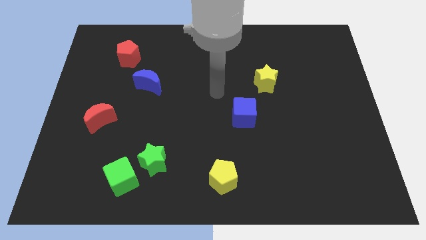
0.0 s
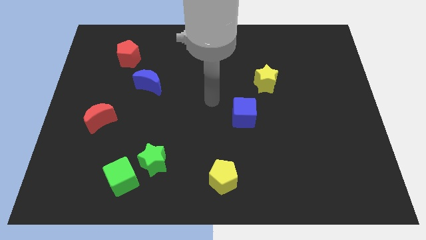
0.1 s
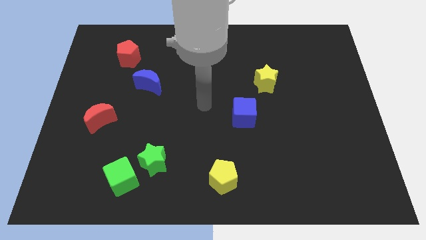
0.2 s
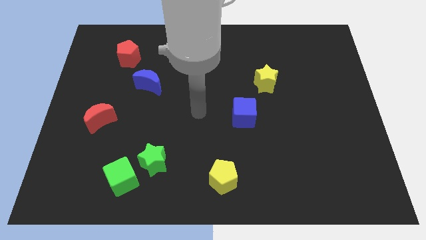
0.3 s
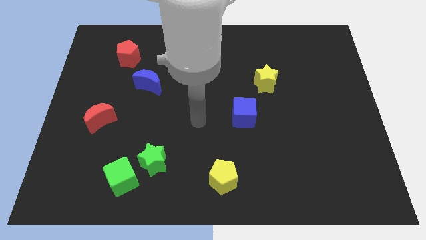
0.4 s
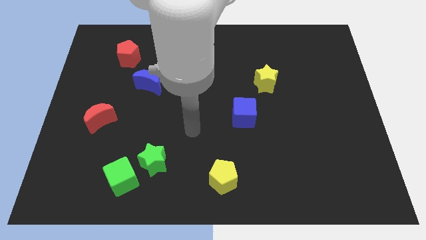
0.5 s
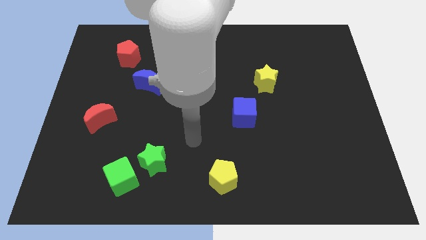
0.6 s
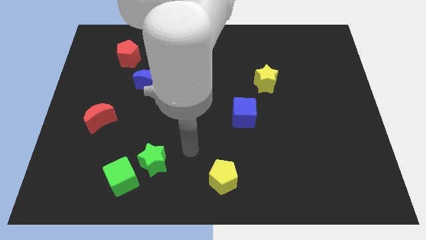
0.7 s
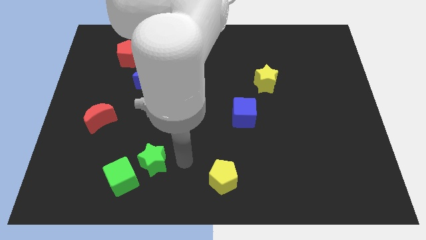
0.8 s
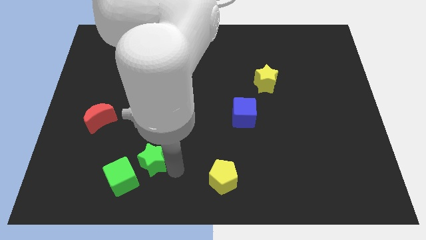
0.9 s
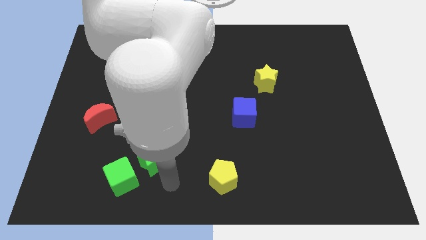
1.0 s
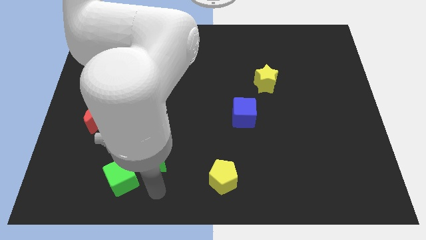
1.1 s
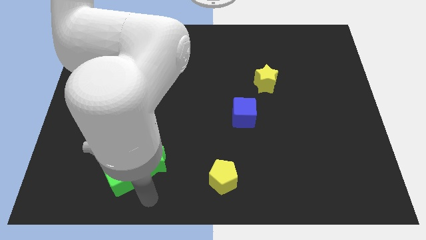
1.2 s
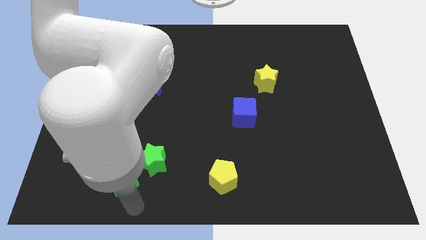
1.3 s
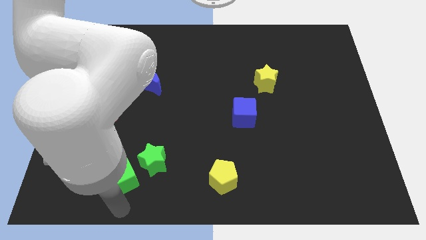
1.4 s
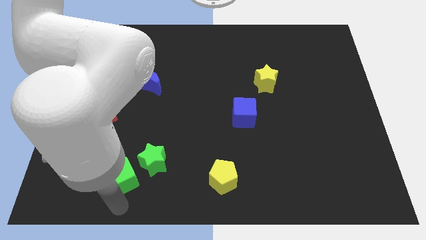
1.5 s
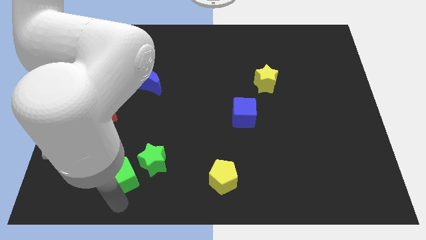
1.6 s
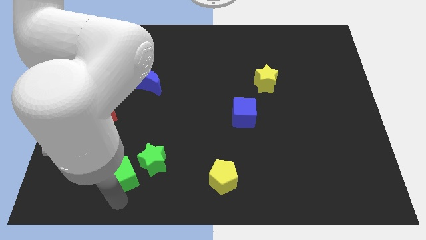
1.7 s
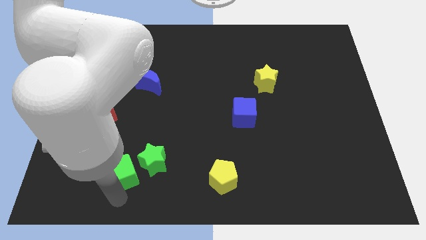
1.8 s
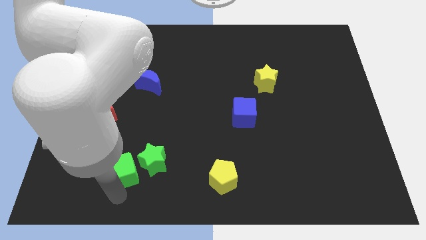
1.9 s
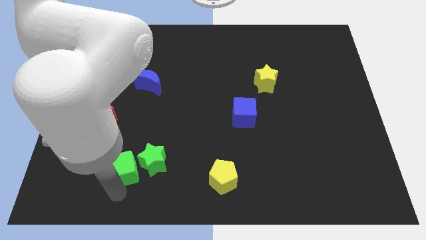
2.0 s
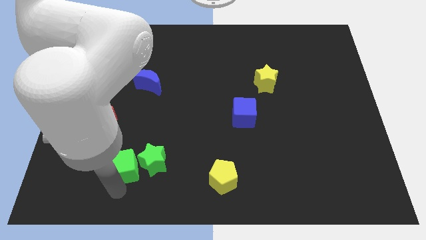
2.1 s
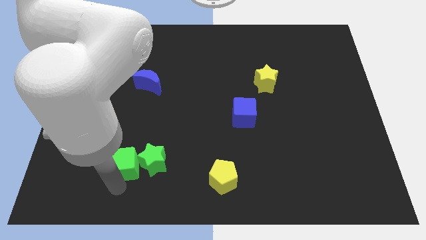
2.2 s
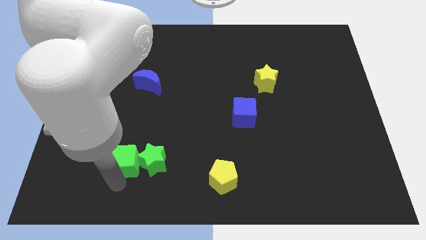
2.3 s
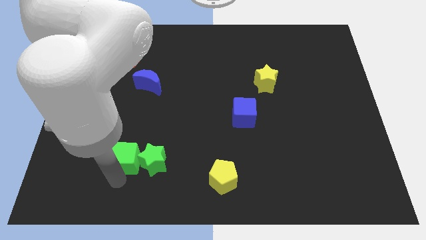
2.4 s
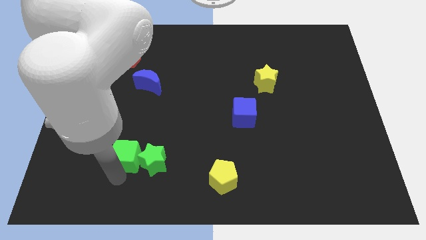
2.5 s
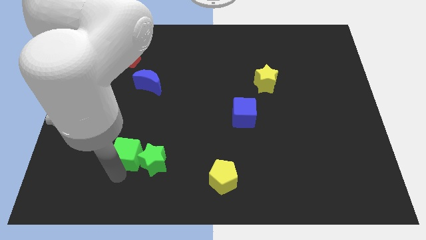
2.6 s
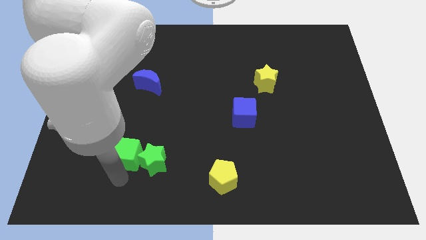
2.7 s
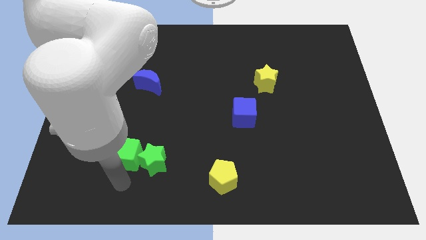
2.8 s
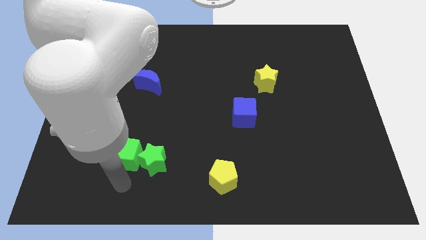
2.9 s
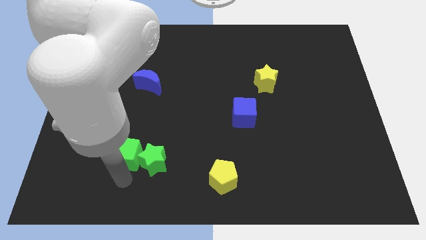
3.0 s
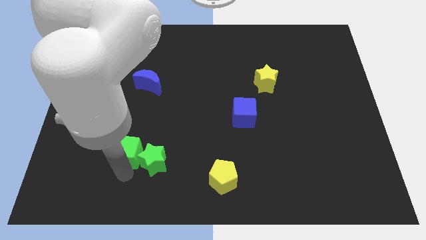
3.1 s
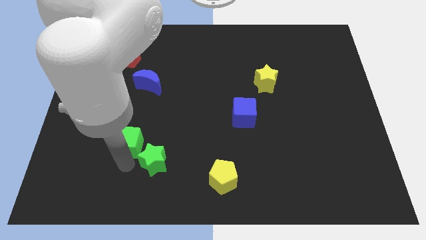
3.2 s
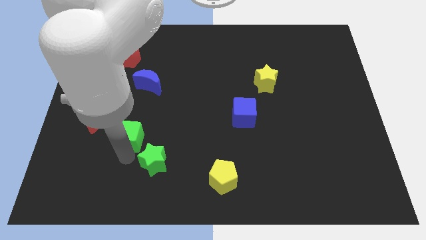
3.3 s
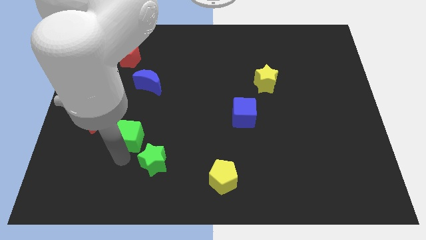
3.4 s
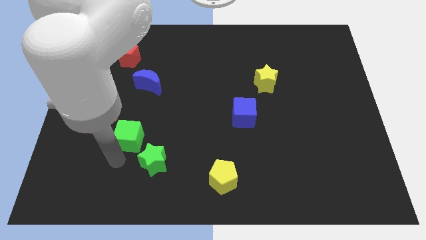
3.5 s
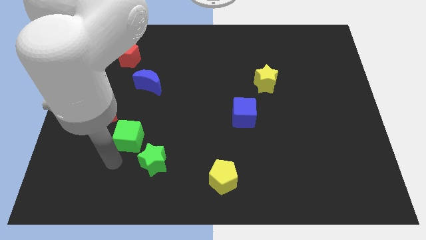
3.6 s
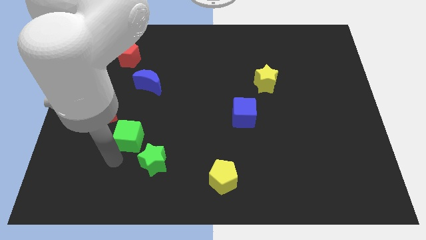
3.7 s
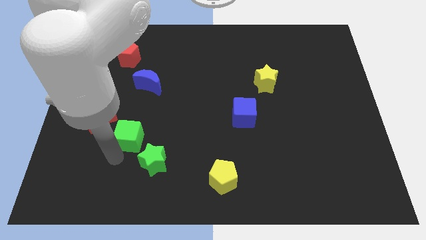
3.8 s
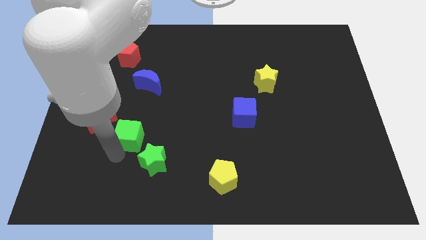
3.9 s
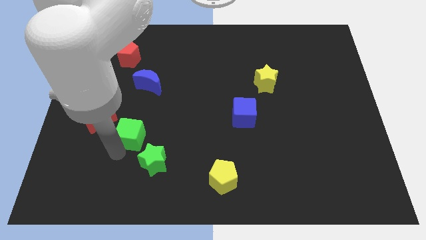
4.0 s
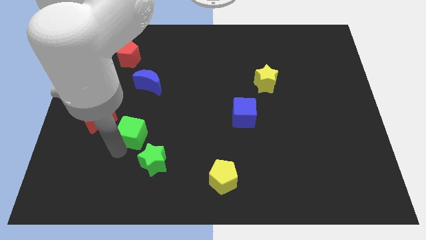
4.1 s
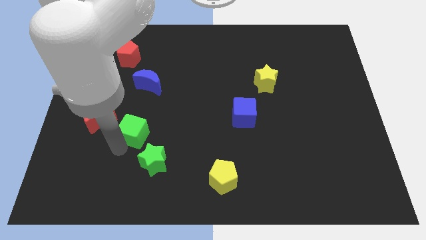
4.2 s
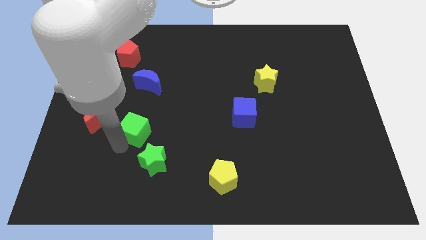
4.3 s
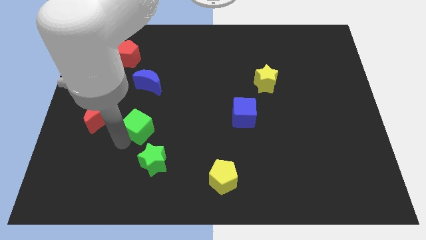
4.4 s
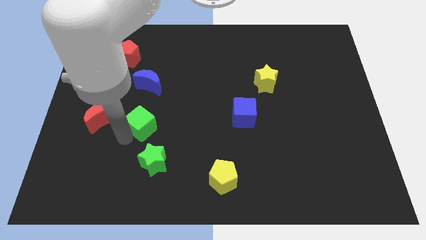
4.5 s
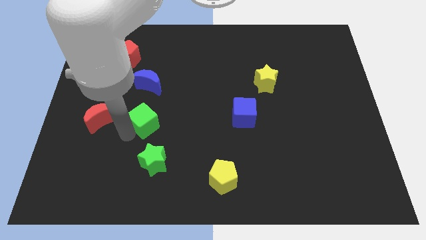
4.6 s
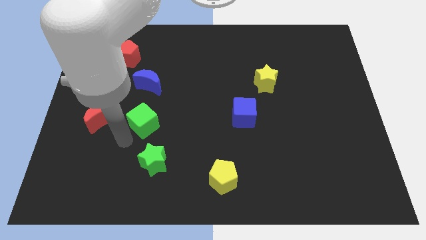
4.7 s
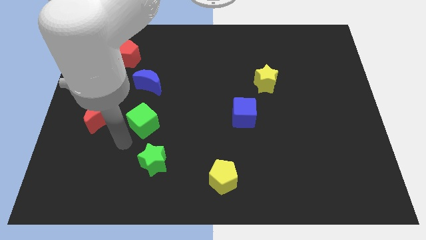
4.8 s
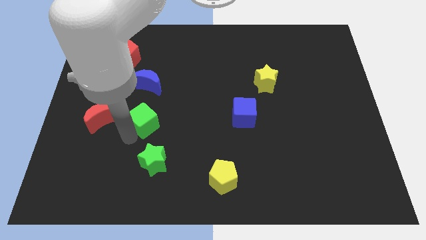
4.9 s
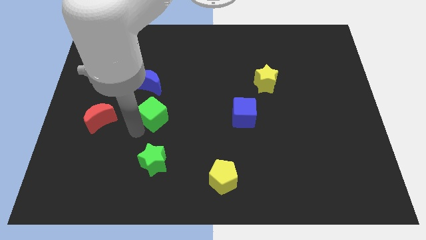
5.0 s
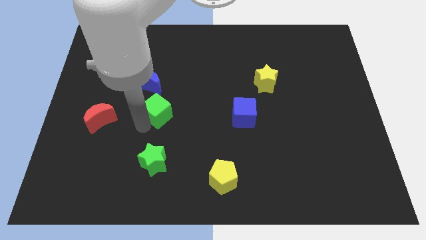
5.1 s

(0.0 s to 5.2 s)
move the green cube to the bottom right side of the blue moon

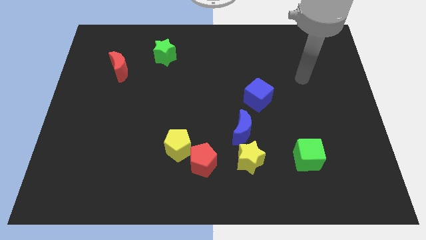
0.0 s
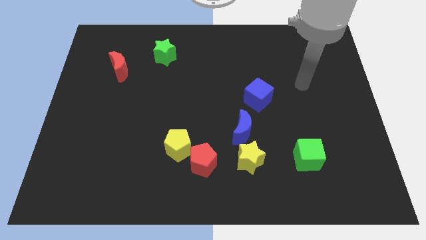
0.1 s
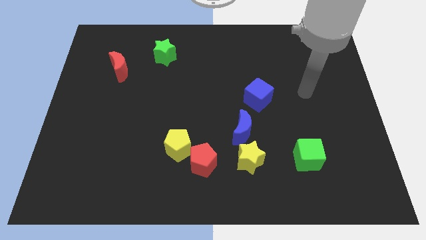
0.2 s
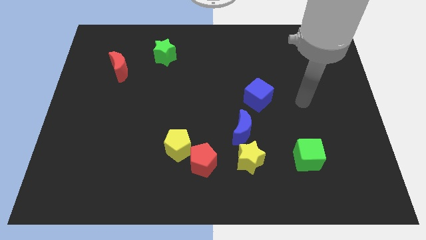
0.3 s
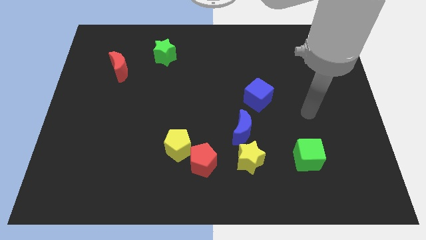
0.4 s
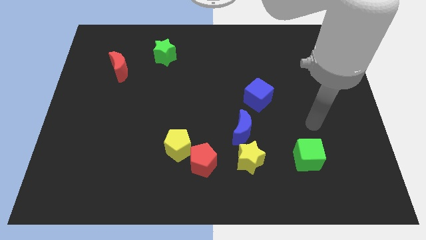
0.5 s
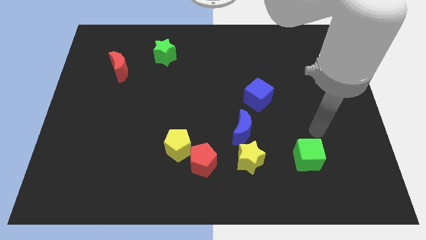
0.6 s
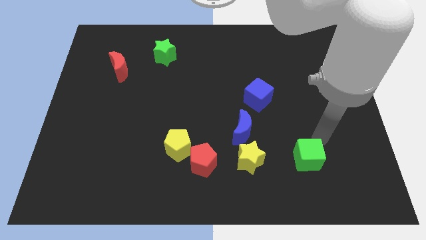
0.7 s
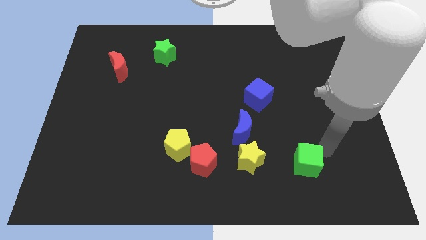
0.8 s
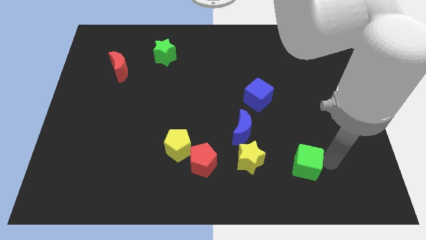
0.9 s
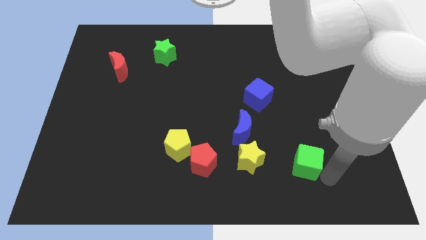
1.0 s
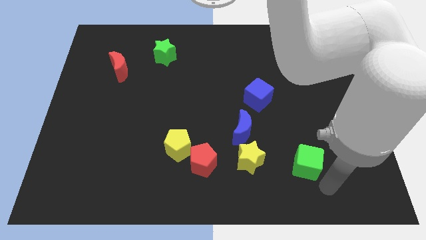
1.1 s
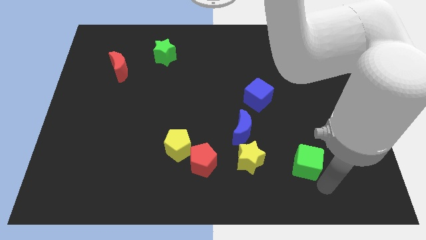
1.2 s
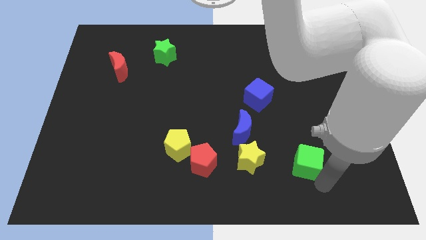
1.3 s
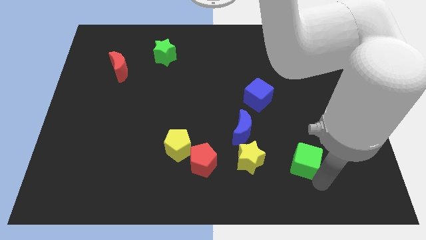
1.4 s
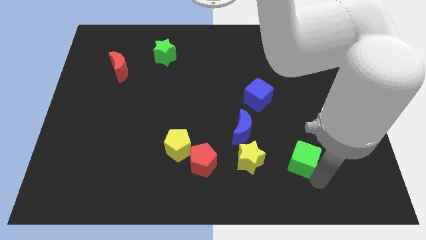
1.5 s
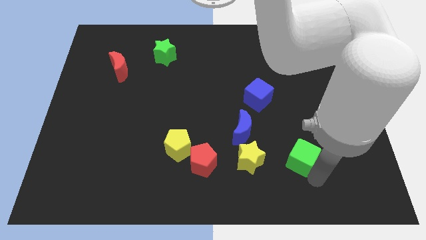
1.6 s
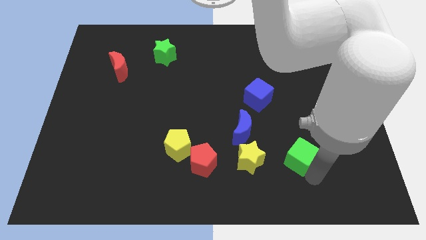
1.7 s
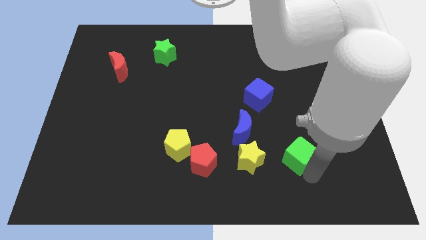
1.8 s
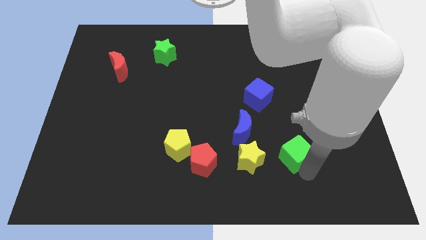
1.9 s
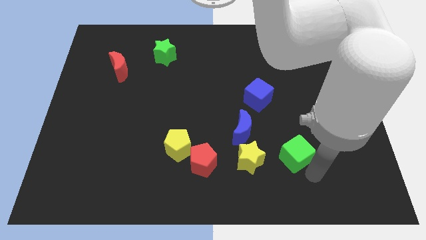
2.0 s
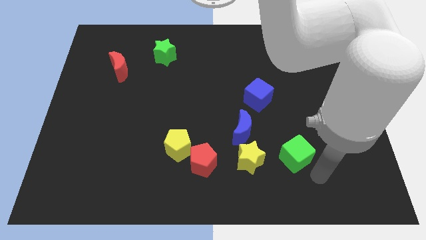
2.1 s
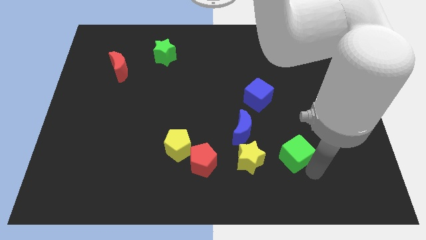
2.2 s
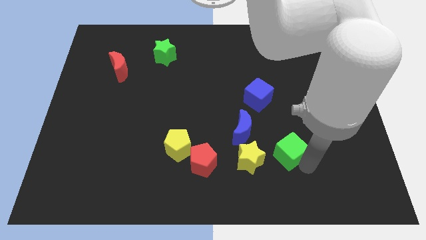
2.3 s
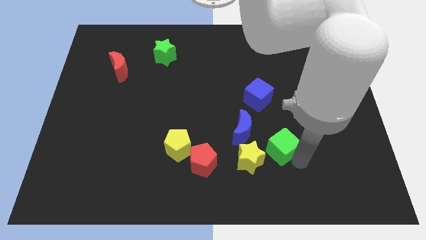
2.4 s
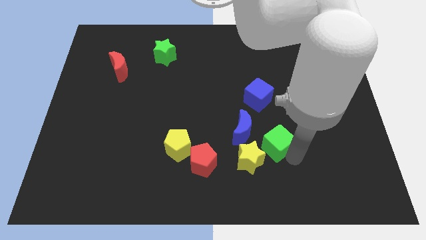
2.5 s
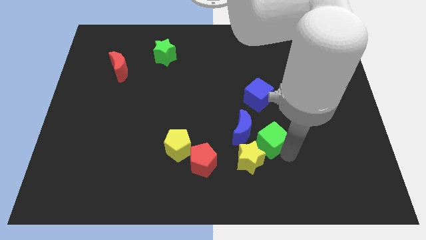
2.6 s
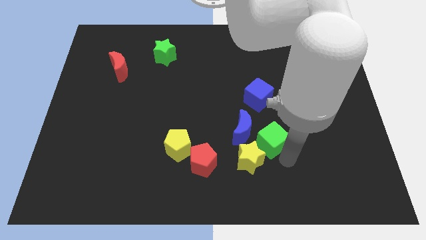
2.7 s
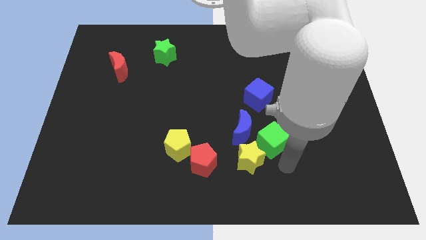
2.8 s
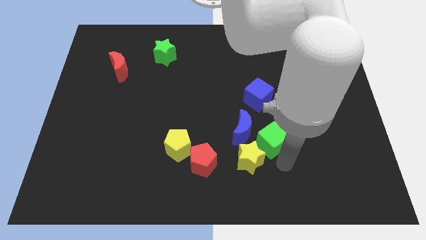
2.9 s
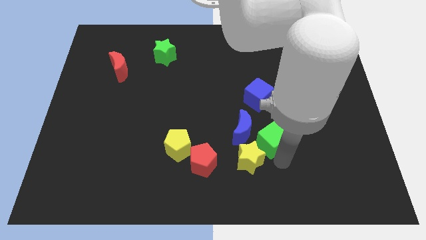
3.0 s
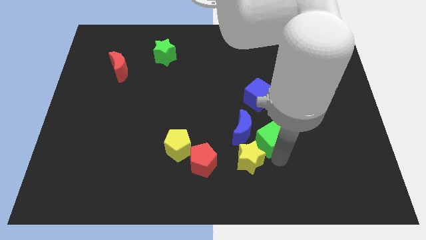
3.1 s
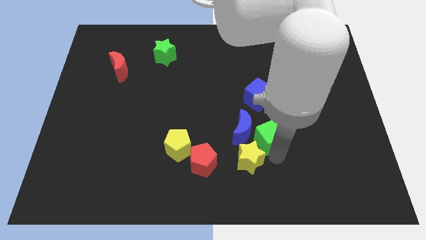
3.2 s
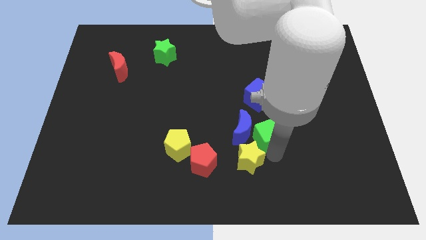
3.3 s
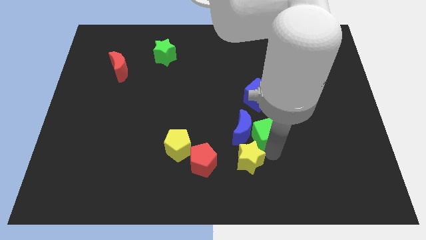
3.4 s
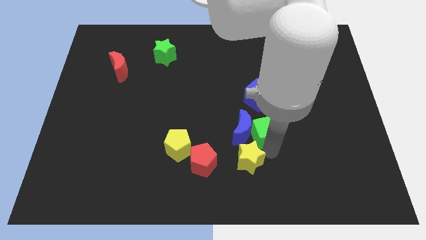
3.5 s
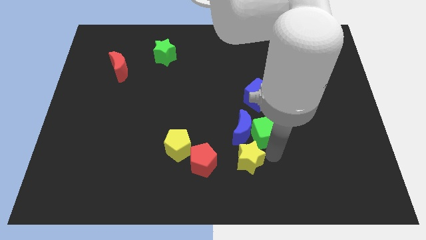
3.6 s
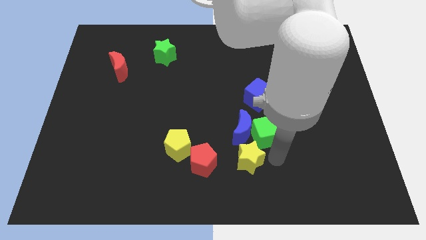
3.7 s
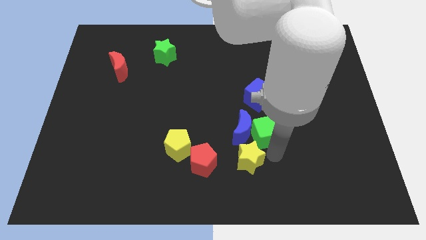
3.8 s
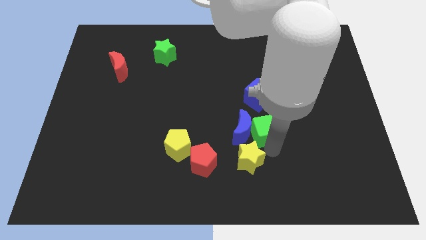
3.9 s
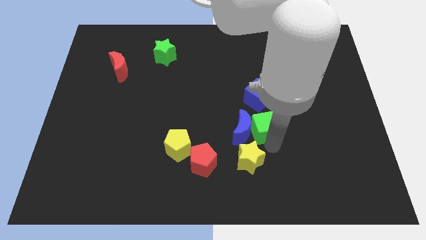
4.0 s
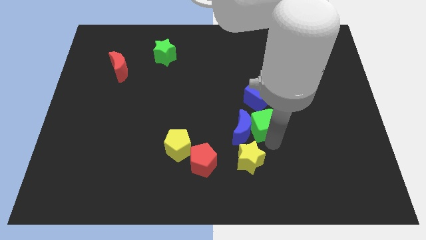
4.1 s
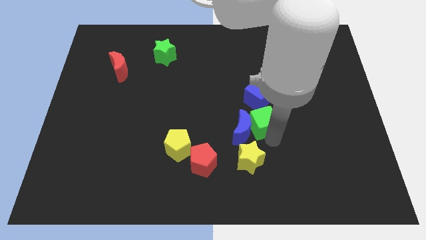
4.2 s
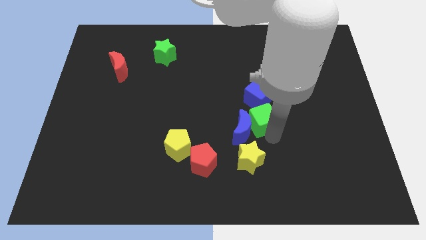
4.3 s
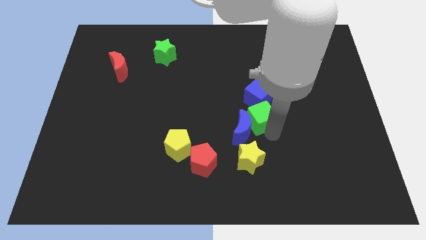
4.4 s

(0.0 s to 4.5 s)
move the green cube diagonally down and to the left of the blue cube
